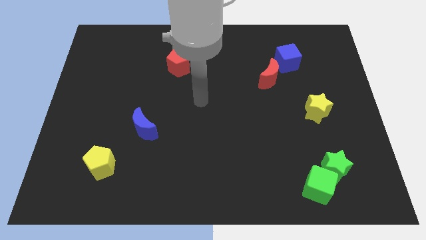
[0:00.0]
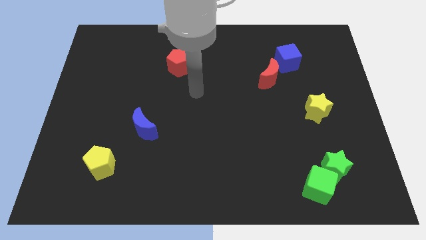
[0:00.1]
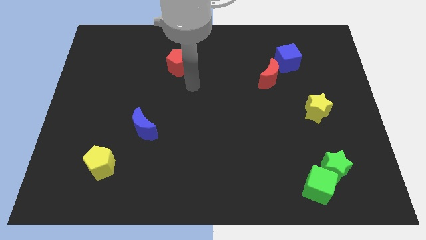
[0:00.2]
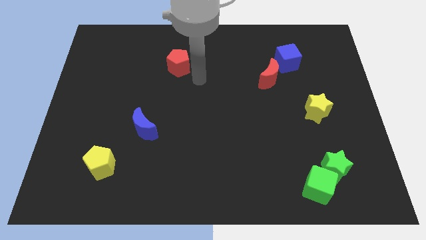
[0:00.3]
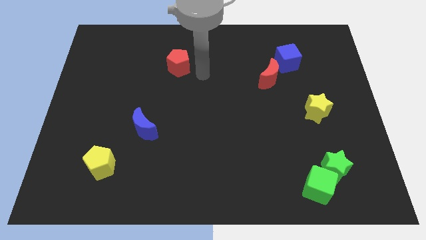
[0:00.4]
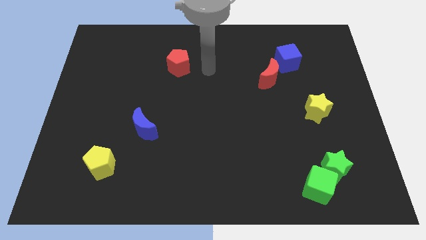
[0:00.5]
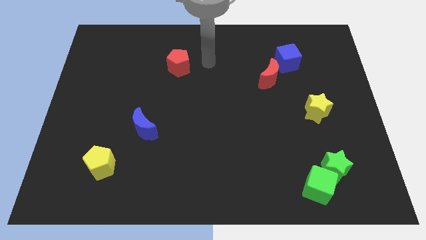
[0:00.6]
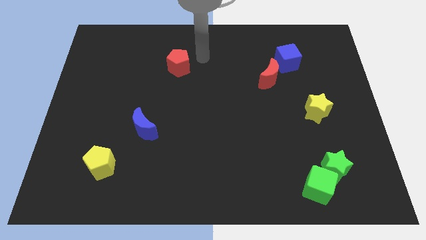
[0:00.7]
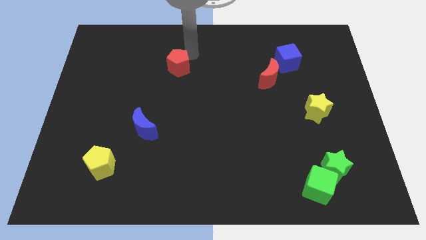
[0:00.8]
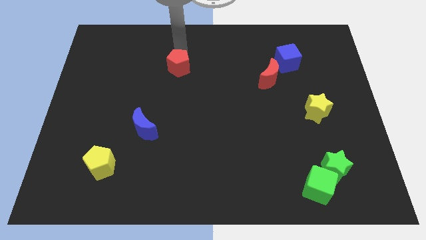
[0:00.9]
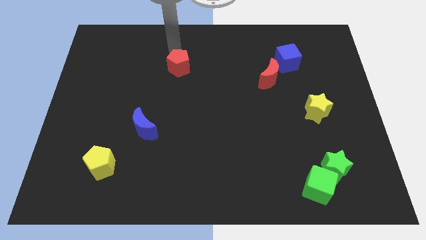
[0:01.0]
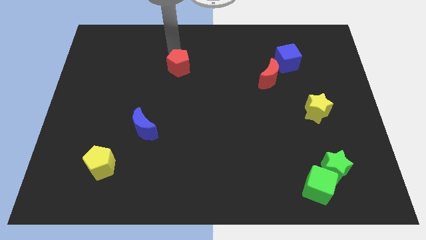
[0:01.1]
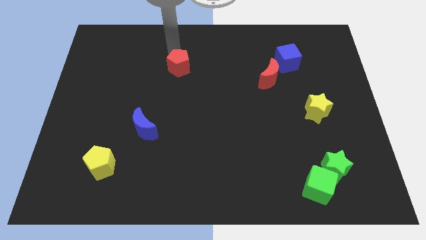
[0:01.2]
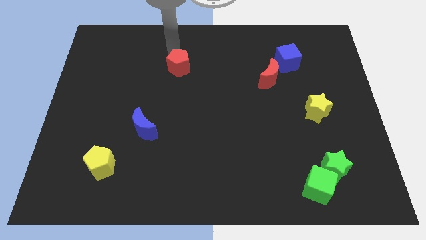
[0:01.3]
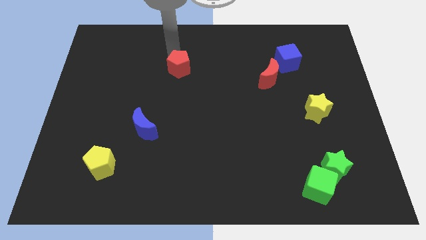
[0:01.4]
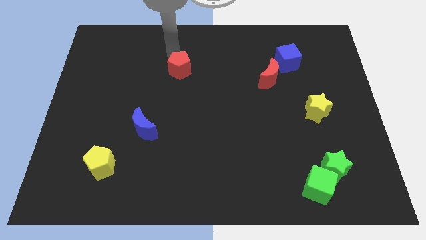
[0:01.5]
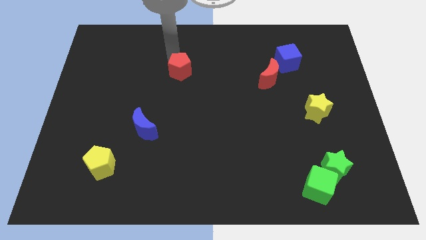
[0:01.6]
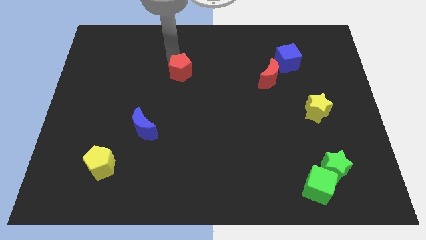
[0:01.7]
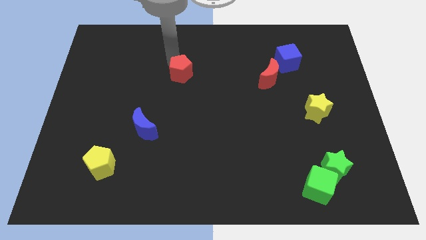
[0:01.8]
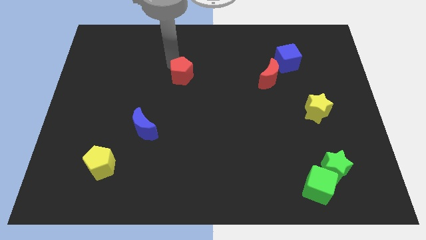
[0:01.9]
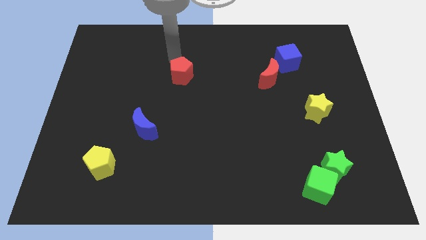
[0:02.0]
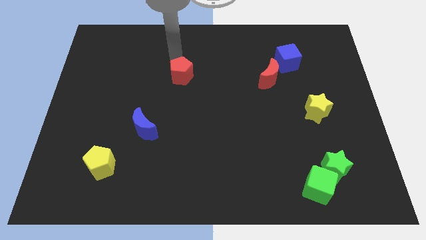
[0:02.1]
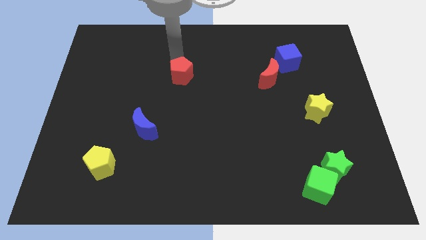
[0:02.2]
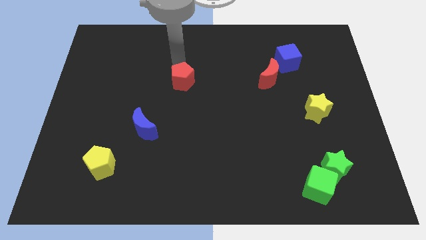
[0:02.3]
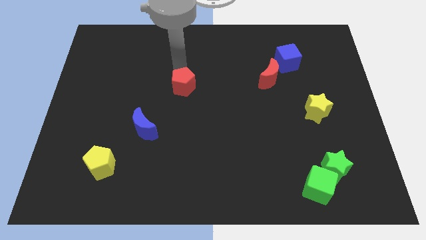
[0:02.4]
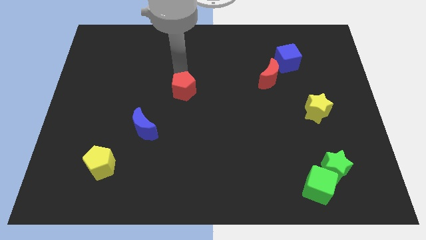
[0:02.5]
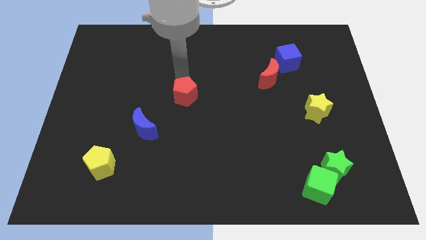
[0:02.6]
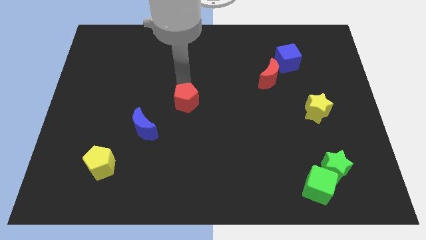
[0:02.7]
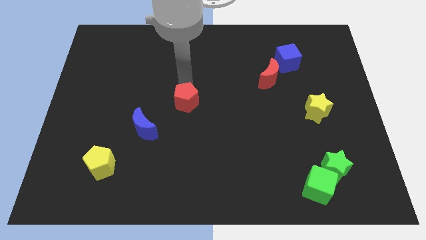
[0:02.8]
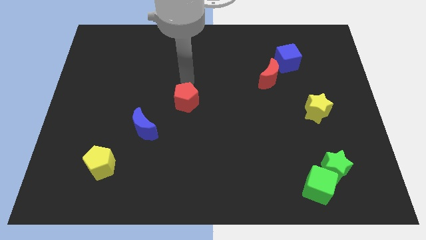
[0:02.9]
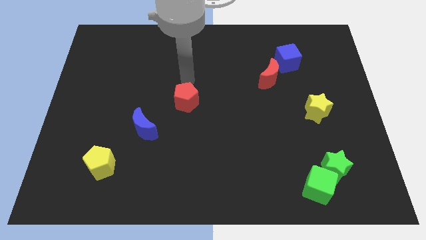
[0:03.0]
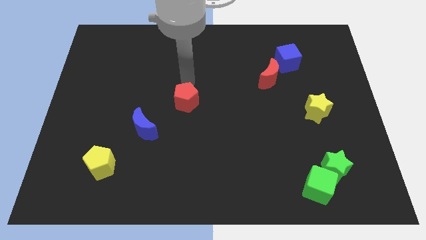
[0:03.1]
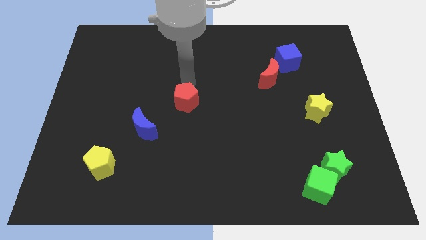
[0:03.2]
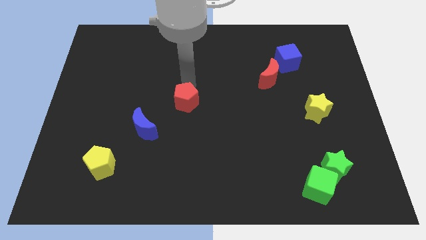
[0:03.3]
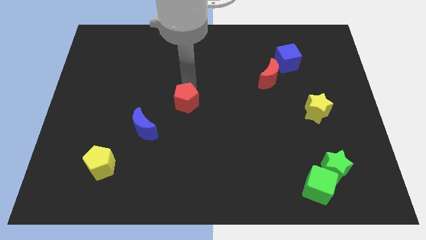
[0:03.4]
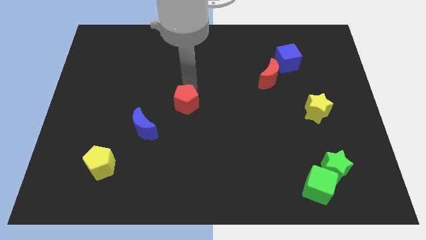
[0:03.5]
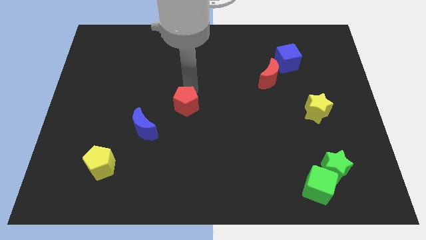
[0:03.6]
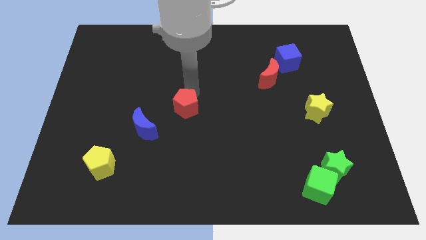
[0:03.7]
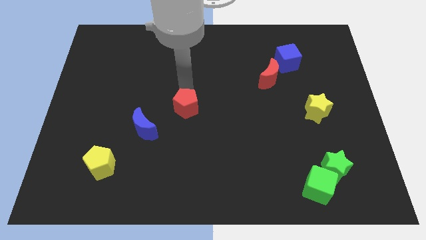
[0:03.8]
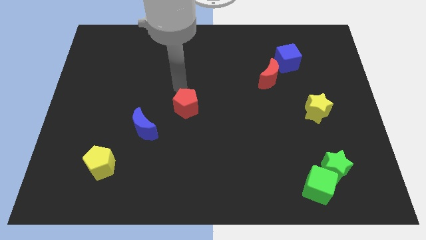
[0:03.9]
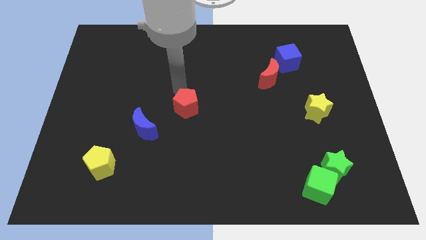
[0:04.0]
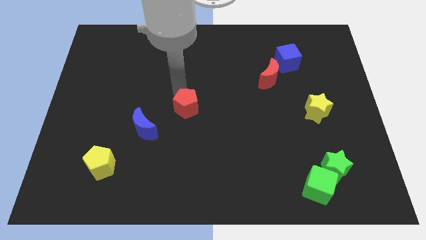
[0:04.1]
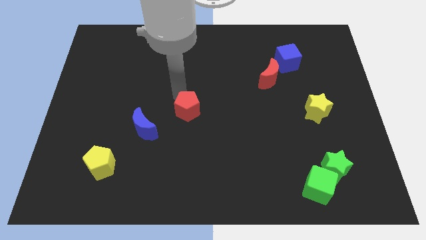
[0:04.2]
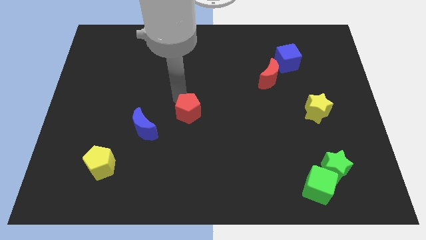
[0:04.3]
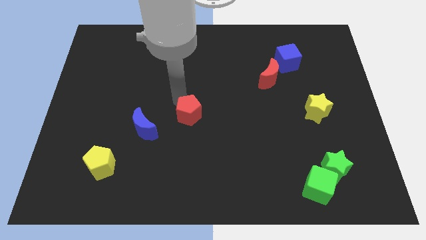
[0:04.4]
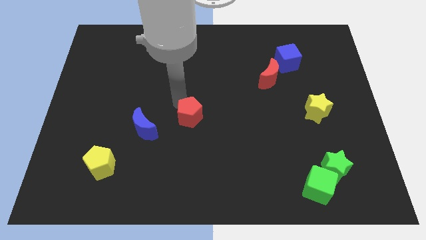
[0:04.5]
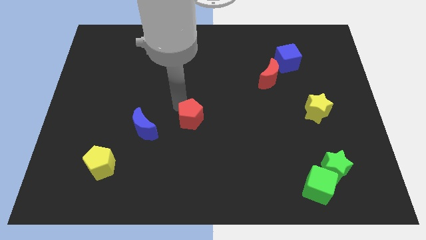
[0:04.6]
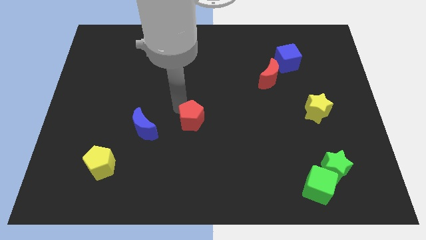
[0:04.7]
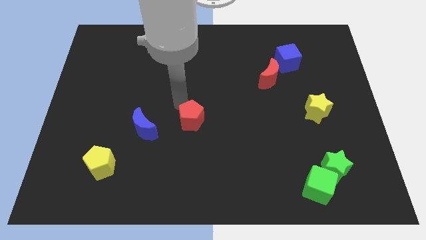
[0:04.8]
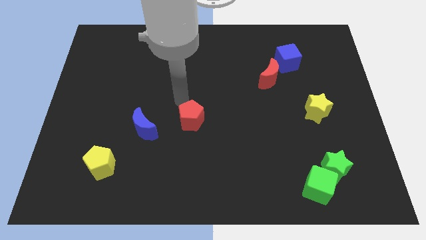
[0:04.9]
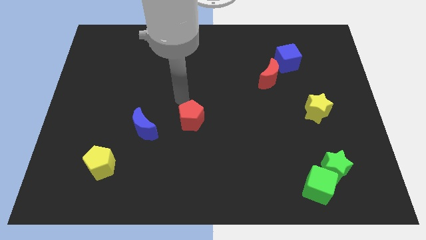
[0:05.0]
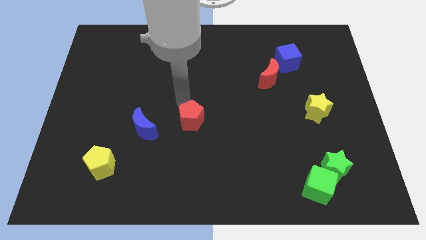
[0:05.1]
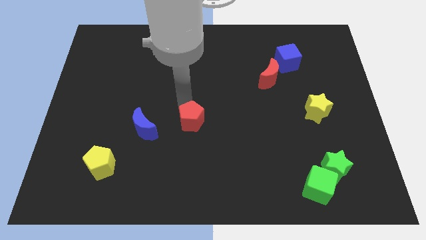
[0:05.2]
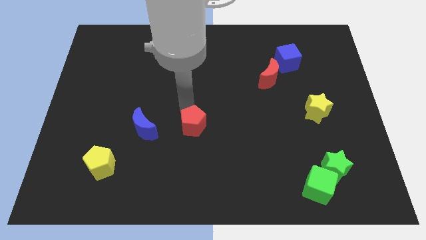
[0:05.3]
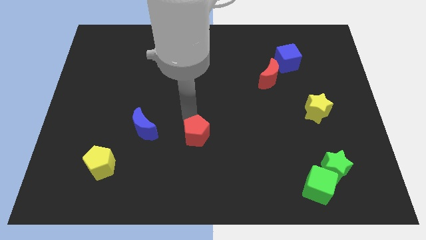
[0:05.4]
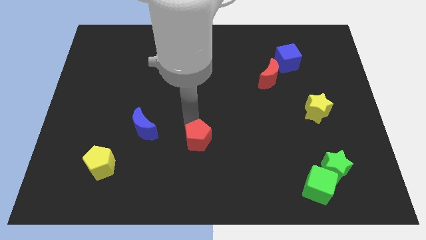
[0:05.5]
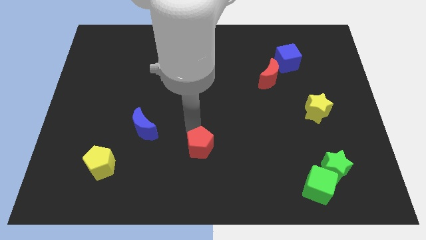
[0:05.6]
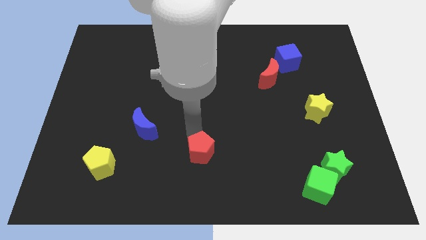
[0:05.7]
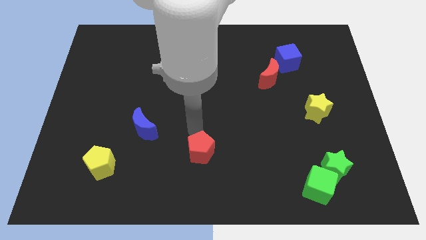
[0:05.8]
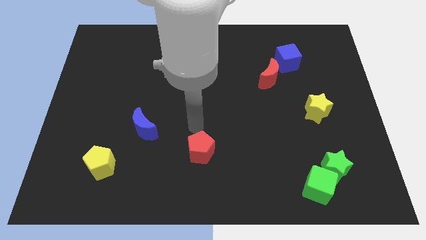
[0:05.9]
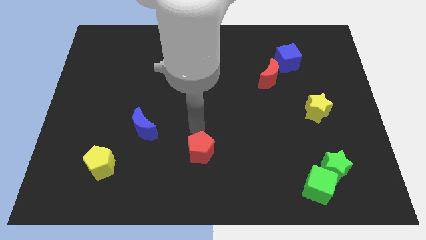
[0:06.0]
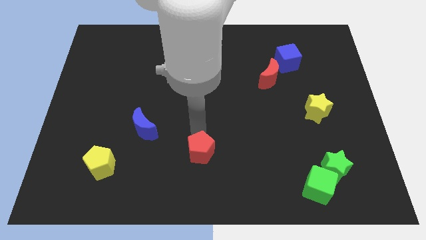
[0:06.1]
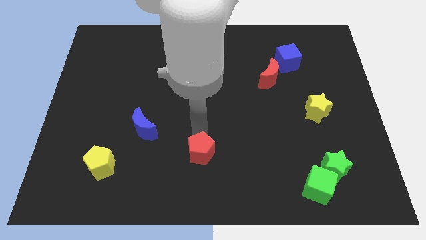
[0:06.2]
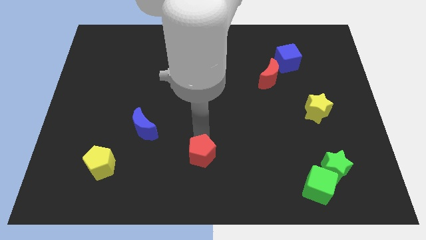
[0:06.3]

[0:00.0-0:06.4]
slide the red pentagon to the bottom
